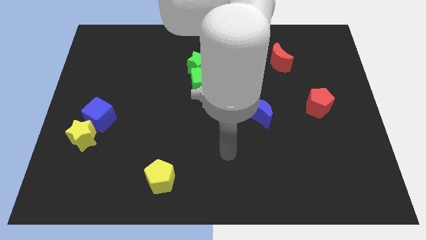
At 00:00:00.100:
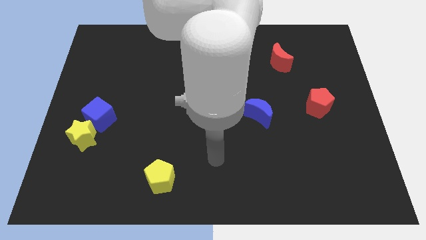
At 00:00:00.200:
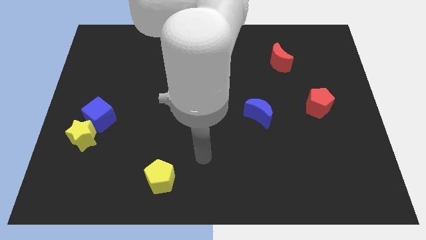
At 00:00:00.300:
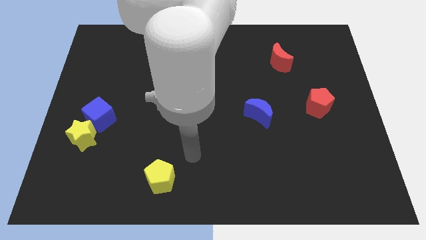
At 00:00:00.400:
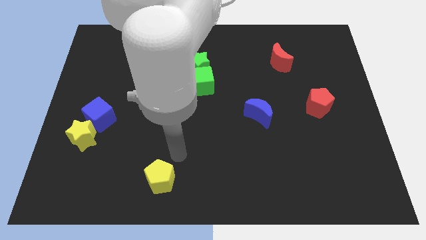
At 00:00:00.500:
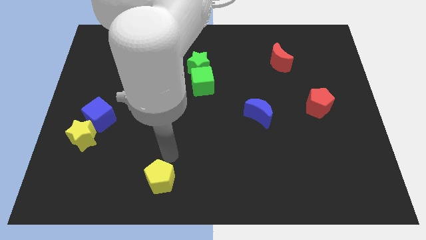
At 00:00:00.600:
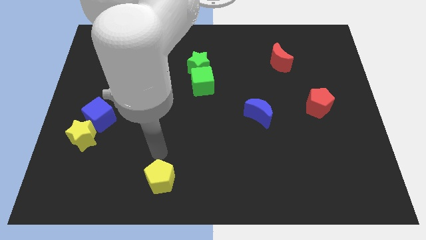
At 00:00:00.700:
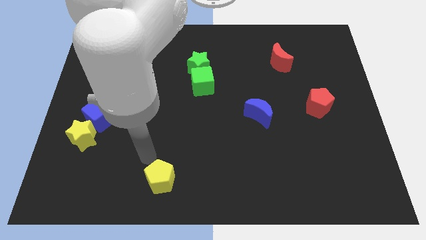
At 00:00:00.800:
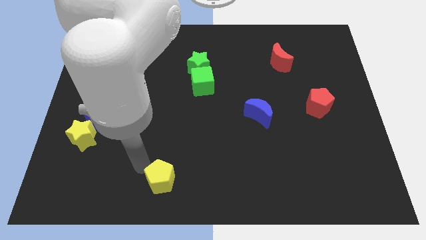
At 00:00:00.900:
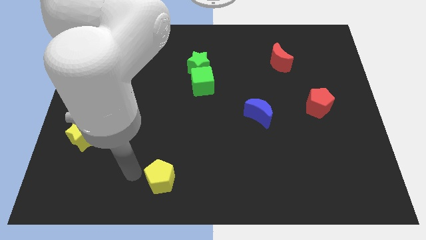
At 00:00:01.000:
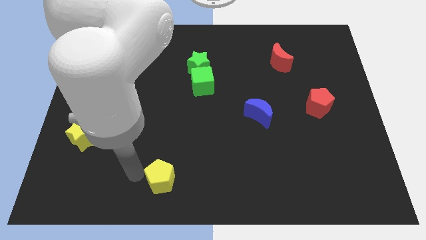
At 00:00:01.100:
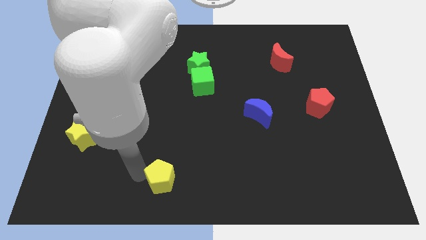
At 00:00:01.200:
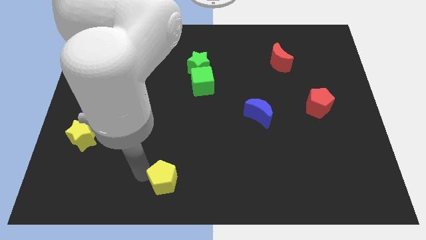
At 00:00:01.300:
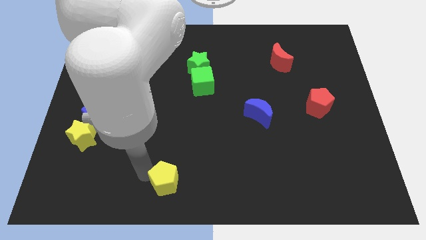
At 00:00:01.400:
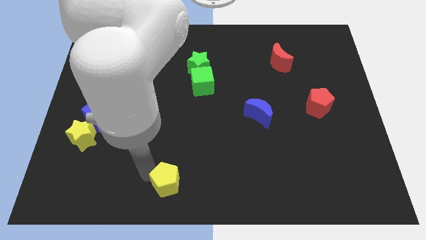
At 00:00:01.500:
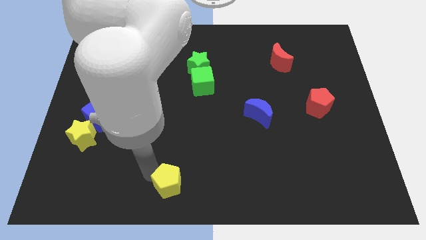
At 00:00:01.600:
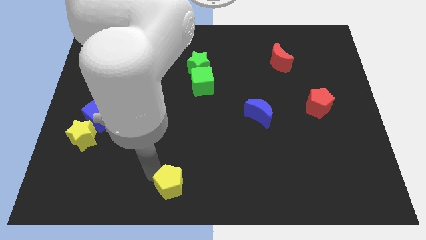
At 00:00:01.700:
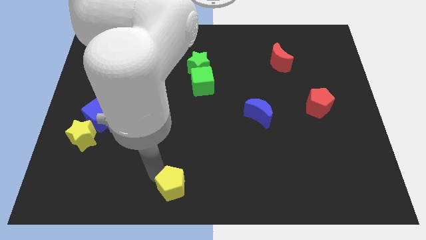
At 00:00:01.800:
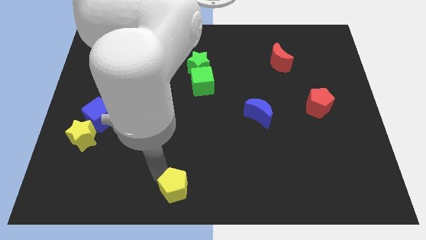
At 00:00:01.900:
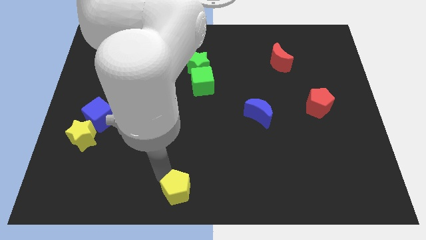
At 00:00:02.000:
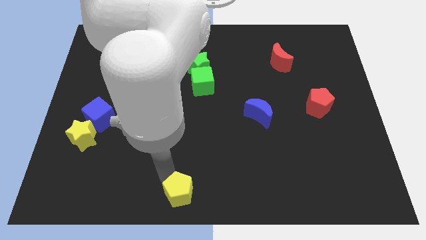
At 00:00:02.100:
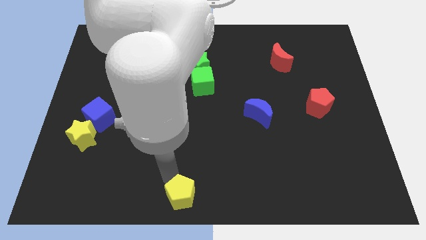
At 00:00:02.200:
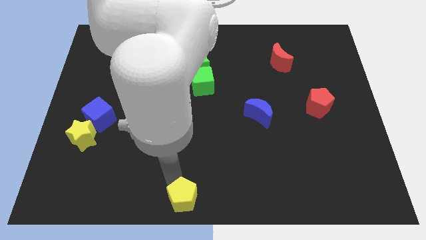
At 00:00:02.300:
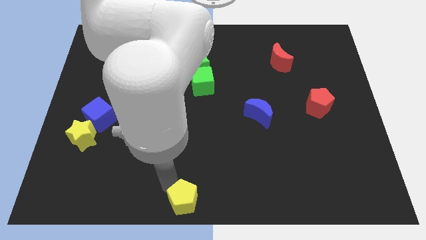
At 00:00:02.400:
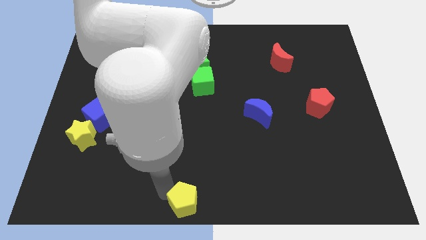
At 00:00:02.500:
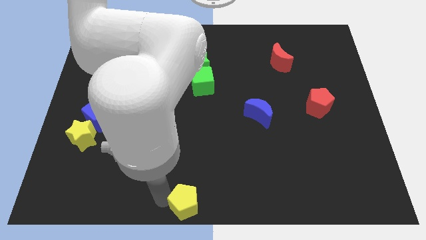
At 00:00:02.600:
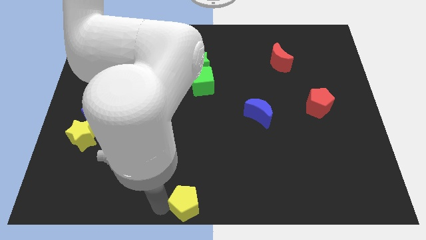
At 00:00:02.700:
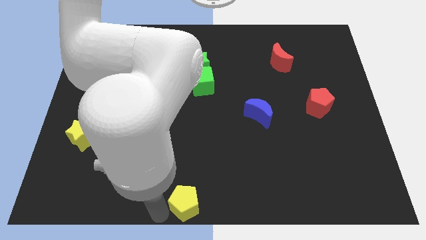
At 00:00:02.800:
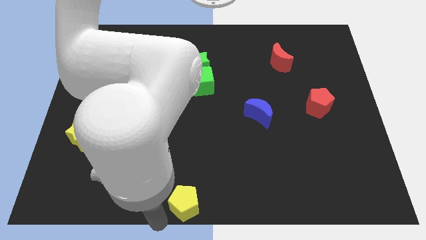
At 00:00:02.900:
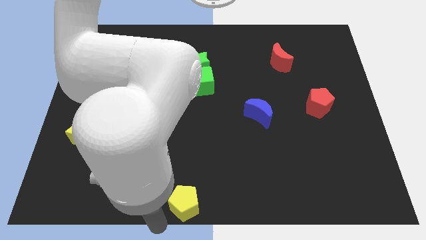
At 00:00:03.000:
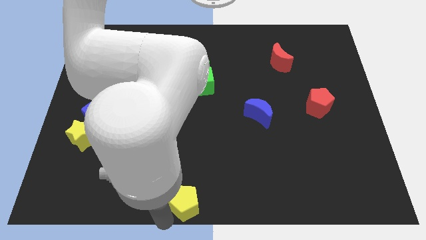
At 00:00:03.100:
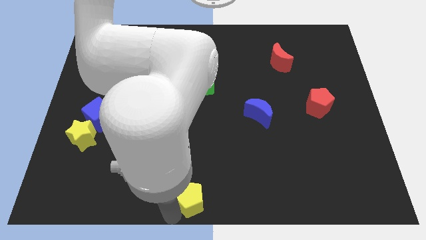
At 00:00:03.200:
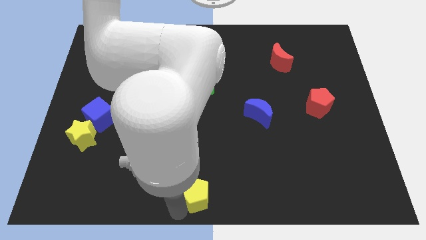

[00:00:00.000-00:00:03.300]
slightly move the yellow pentagon to the right

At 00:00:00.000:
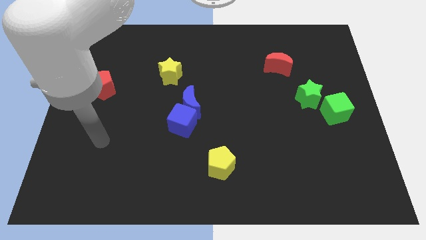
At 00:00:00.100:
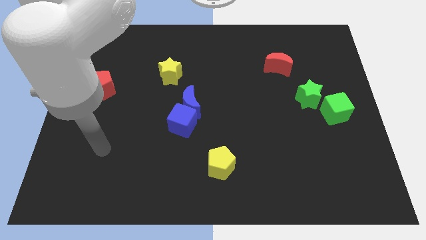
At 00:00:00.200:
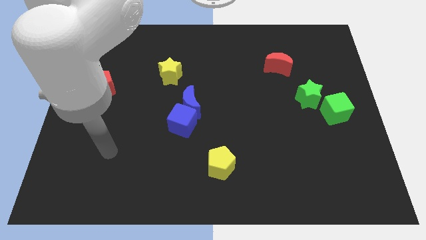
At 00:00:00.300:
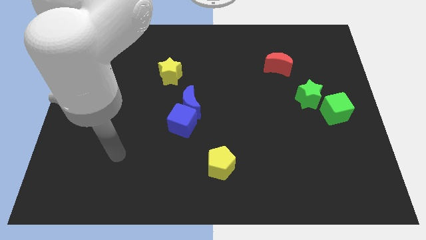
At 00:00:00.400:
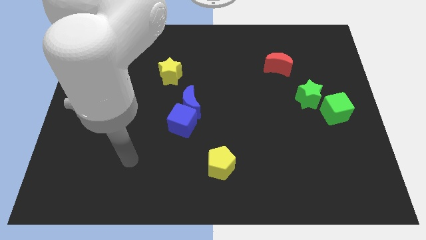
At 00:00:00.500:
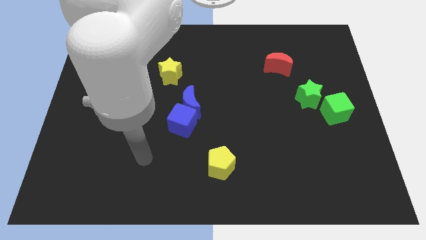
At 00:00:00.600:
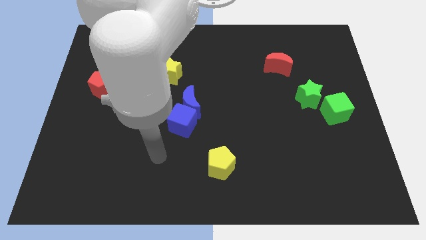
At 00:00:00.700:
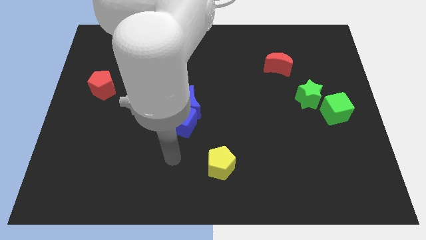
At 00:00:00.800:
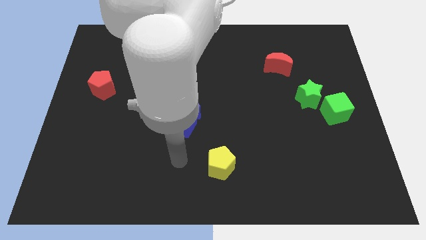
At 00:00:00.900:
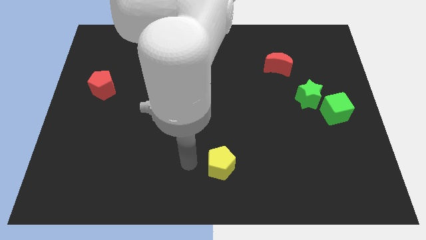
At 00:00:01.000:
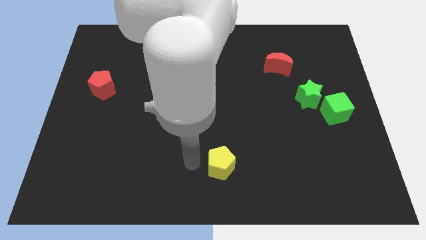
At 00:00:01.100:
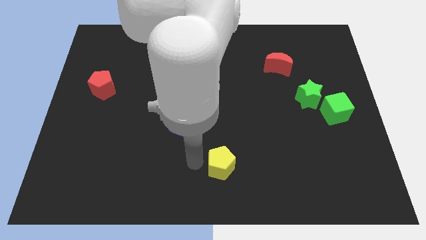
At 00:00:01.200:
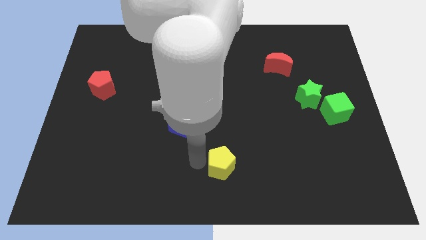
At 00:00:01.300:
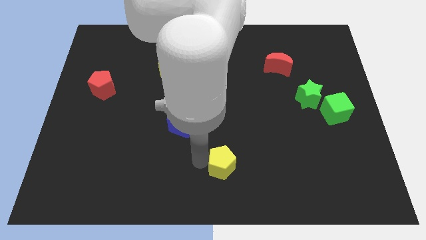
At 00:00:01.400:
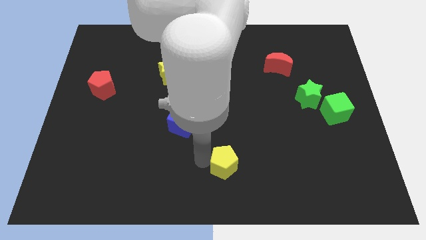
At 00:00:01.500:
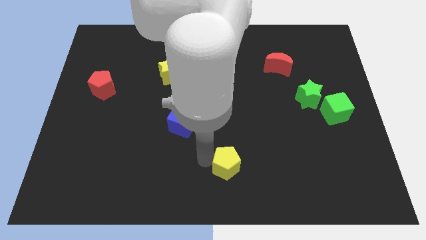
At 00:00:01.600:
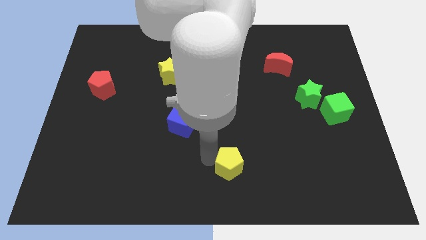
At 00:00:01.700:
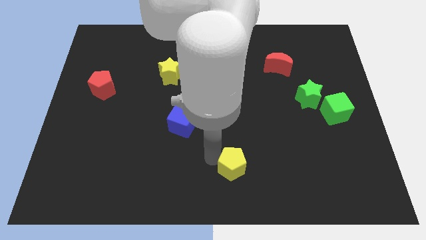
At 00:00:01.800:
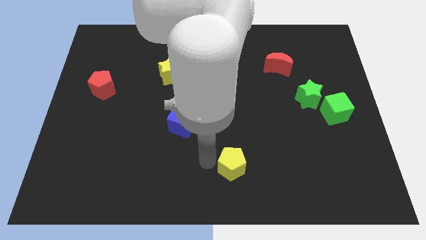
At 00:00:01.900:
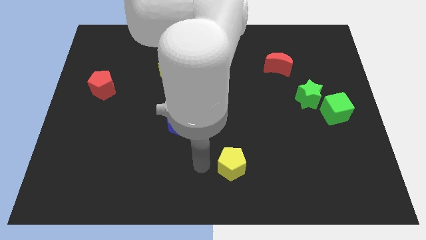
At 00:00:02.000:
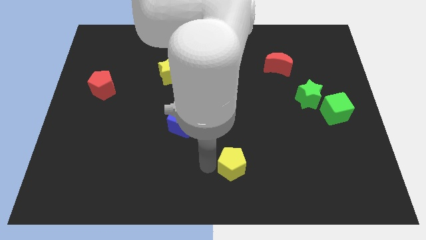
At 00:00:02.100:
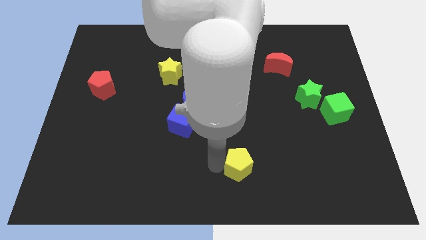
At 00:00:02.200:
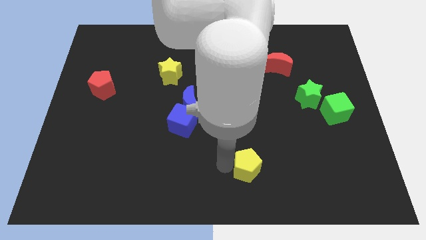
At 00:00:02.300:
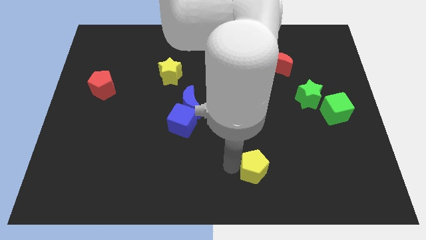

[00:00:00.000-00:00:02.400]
slide the yellow pentagon to the right somewhat

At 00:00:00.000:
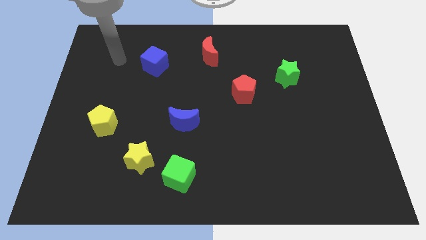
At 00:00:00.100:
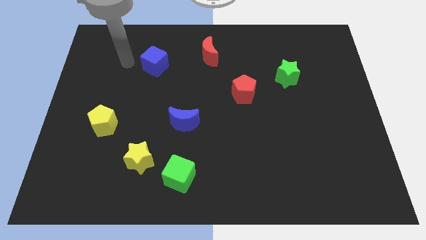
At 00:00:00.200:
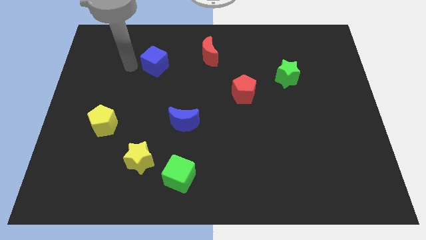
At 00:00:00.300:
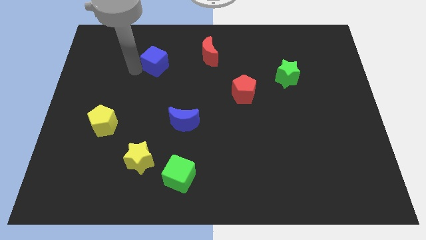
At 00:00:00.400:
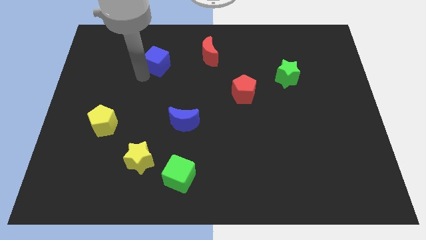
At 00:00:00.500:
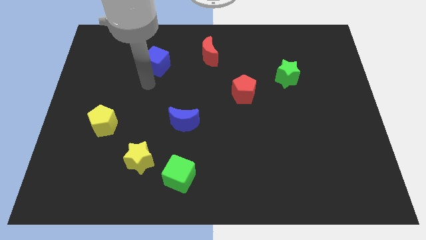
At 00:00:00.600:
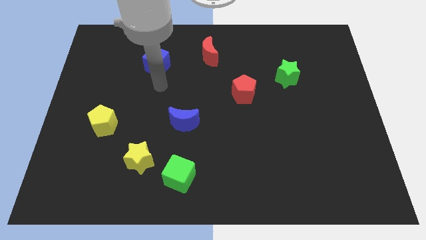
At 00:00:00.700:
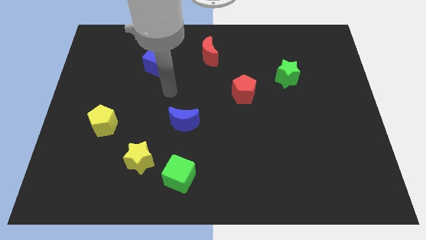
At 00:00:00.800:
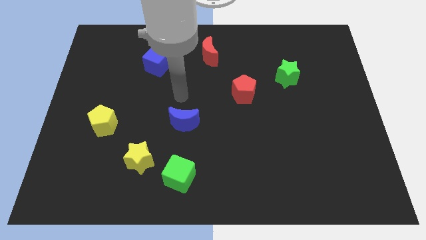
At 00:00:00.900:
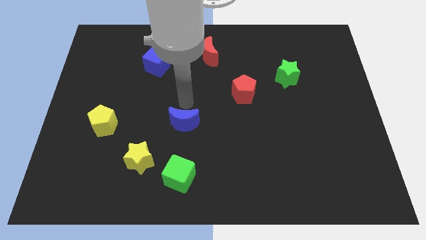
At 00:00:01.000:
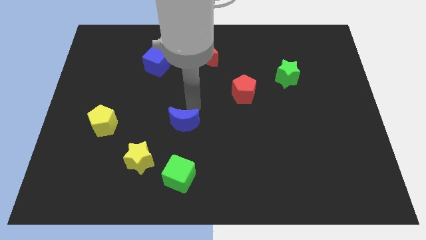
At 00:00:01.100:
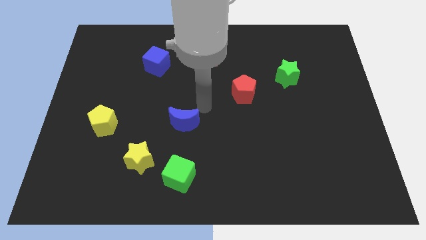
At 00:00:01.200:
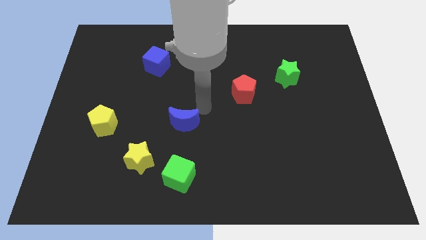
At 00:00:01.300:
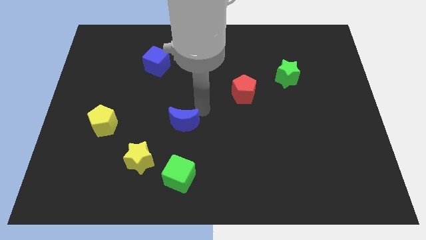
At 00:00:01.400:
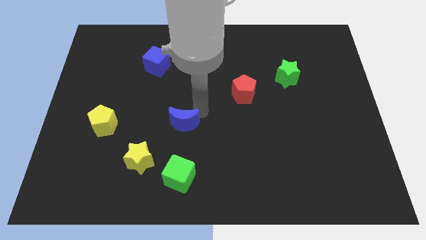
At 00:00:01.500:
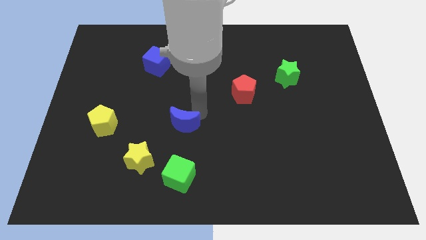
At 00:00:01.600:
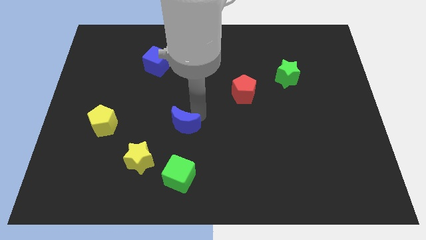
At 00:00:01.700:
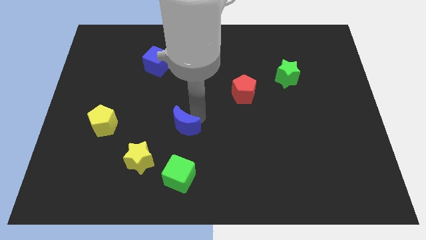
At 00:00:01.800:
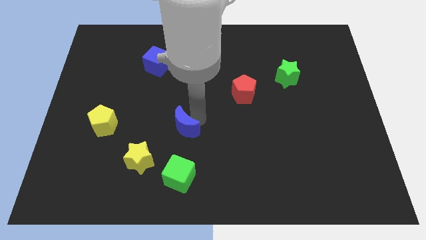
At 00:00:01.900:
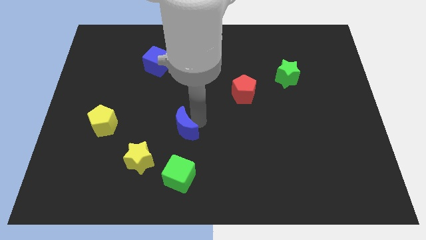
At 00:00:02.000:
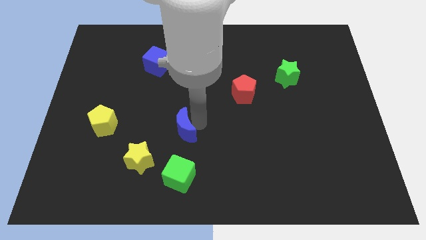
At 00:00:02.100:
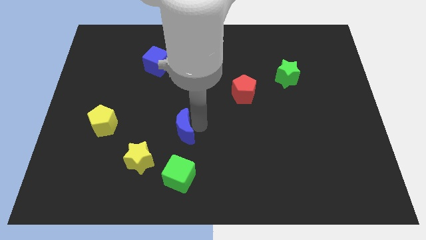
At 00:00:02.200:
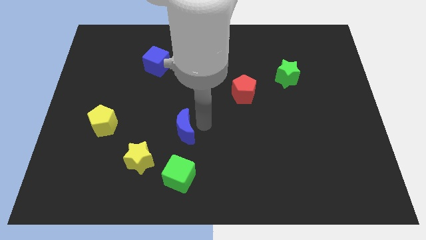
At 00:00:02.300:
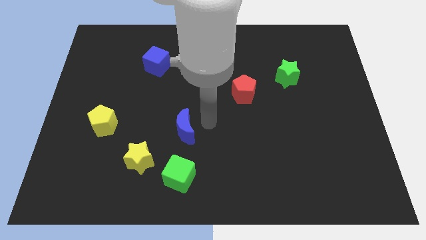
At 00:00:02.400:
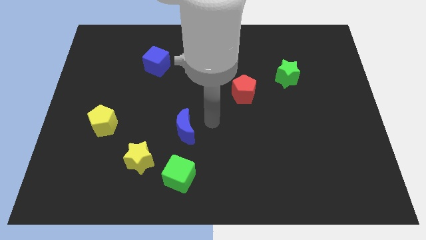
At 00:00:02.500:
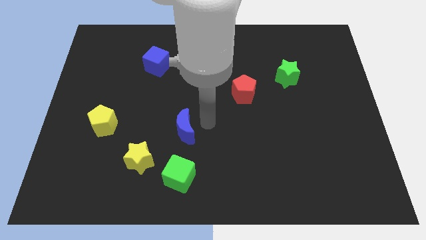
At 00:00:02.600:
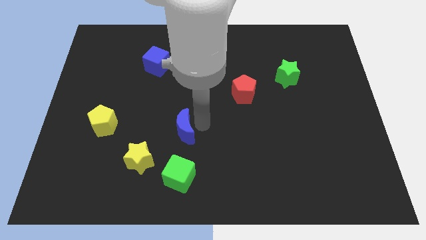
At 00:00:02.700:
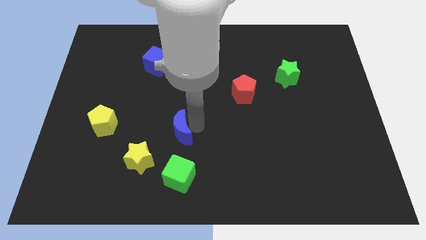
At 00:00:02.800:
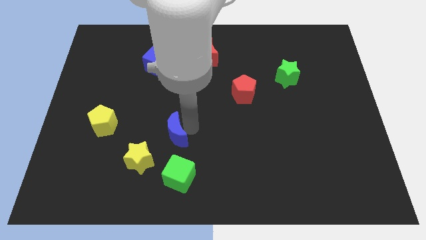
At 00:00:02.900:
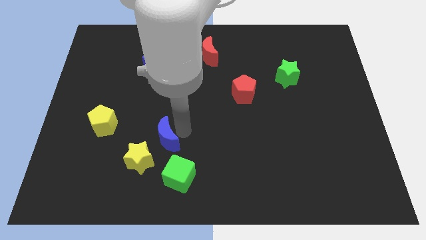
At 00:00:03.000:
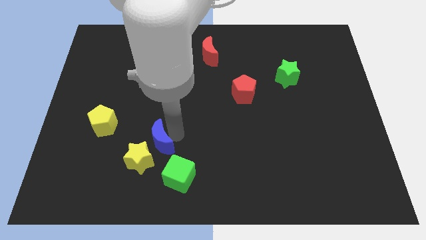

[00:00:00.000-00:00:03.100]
slide the blue moon a bit diagonally downwards and to the left
